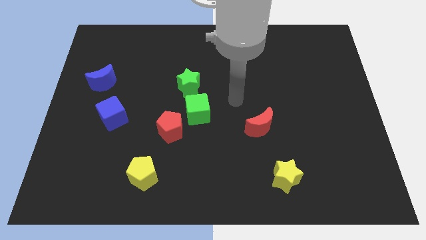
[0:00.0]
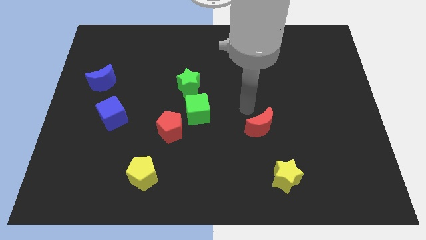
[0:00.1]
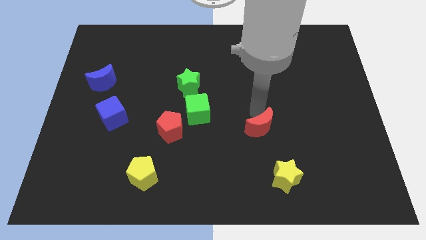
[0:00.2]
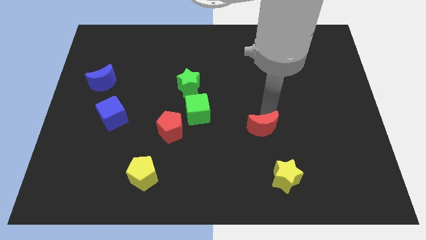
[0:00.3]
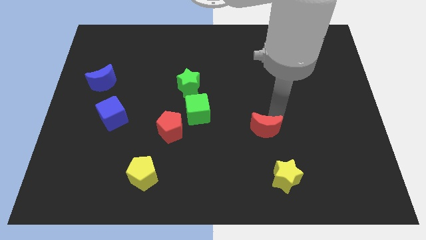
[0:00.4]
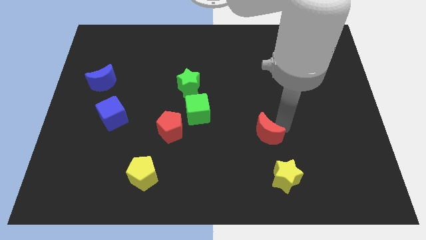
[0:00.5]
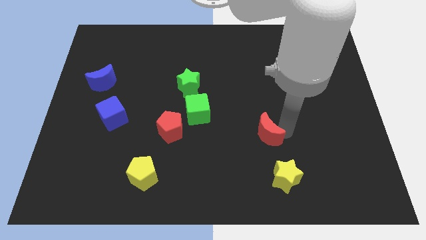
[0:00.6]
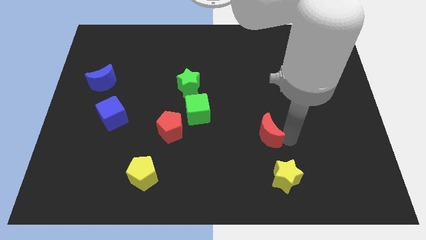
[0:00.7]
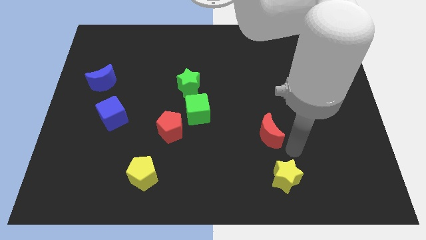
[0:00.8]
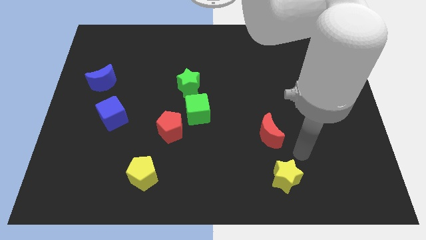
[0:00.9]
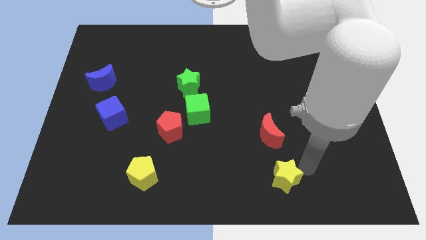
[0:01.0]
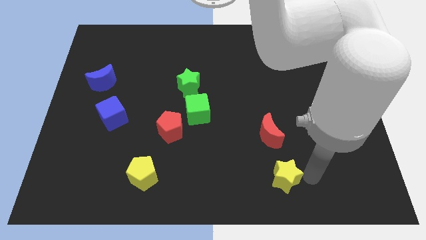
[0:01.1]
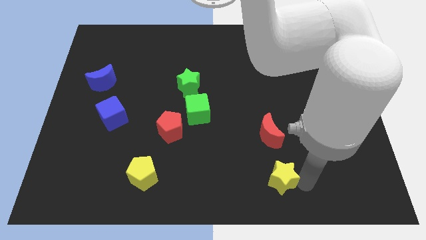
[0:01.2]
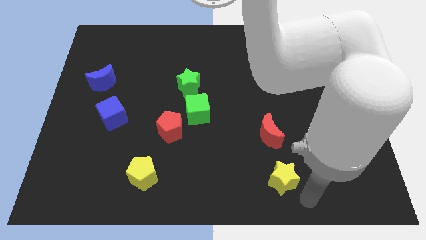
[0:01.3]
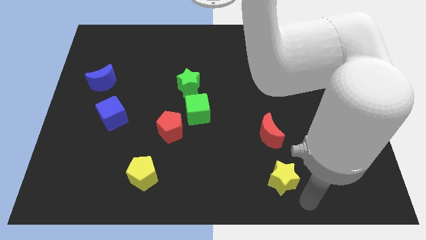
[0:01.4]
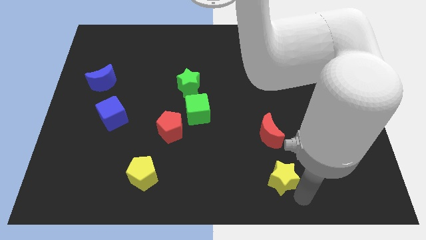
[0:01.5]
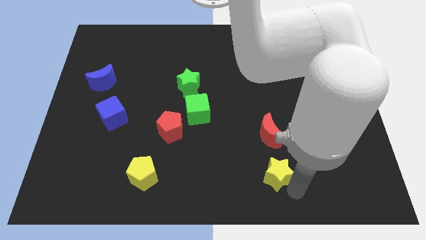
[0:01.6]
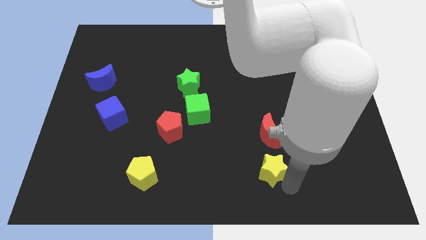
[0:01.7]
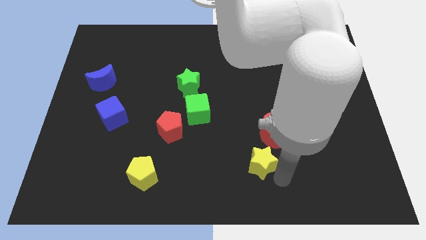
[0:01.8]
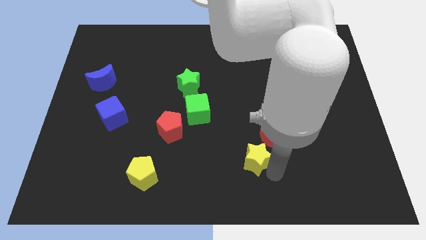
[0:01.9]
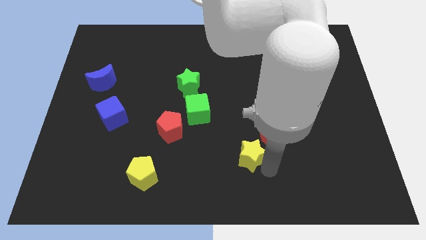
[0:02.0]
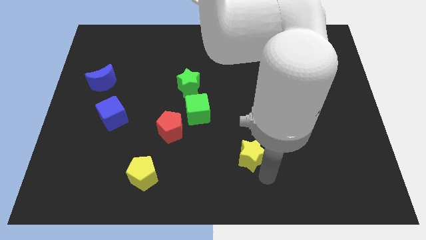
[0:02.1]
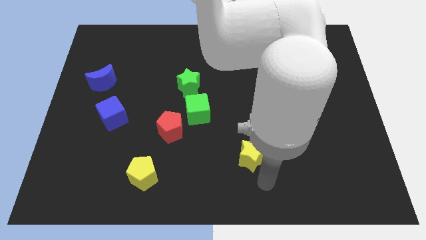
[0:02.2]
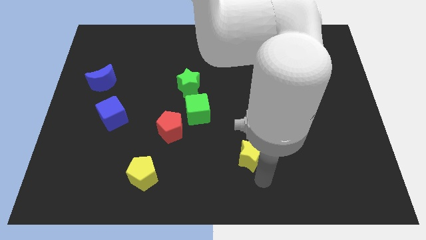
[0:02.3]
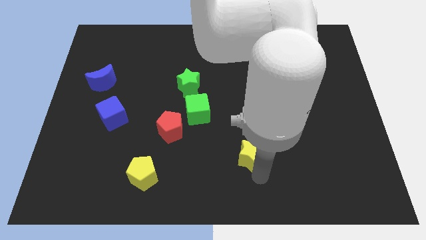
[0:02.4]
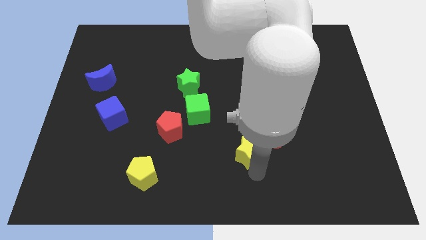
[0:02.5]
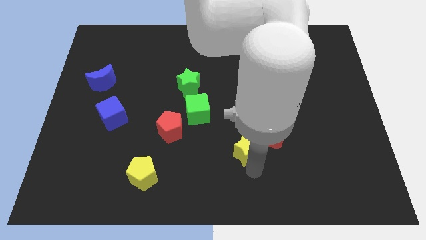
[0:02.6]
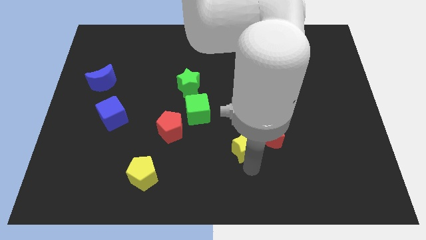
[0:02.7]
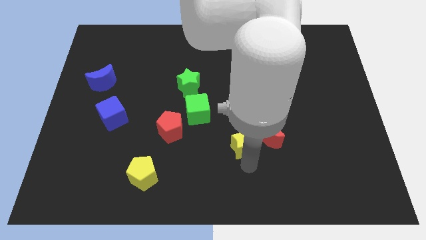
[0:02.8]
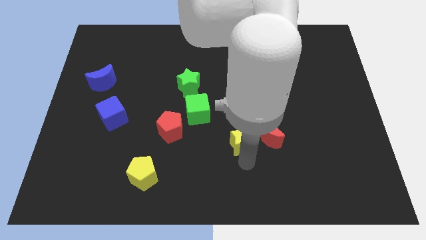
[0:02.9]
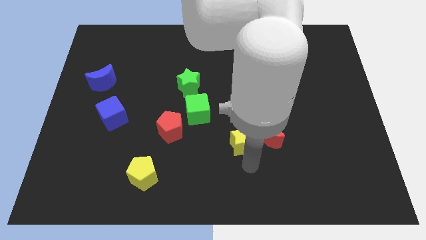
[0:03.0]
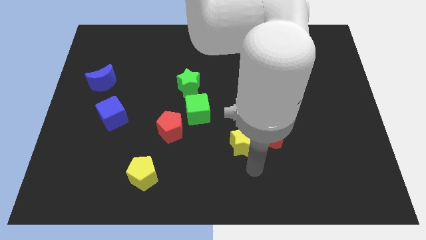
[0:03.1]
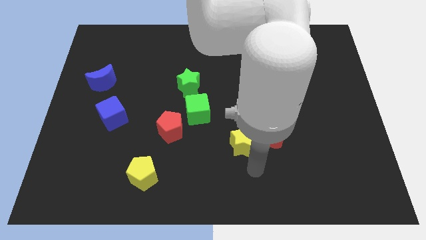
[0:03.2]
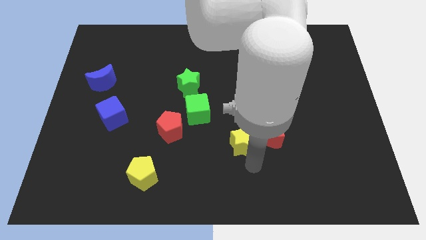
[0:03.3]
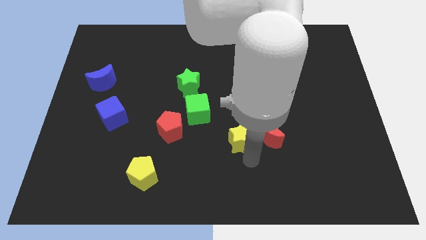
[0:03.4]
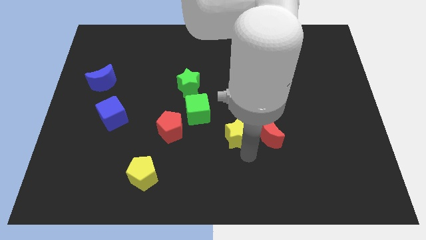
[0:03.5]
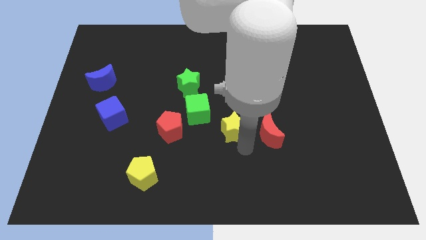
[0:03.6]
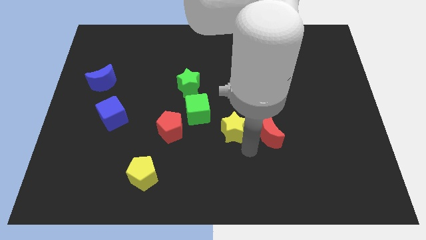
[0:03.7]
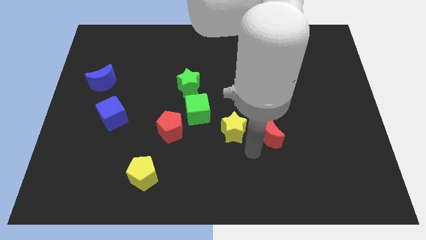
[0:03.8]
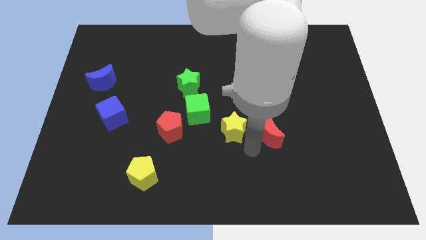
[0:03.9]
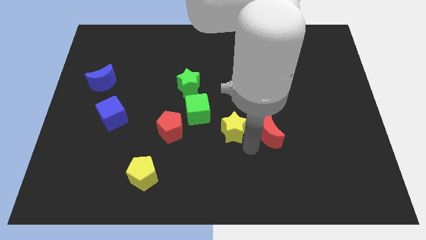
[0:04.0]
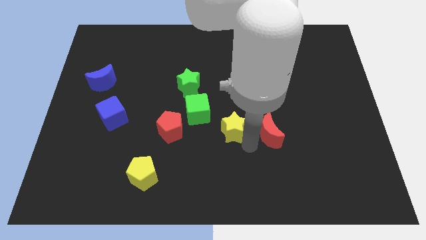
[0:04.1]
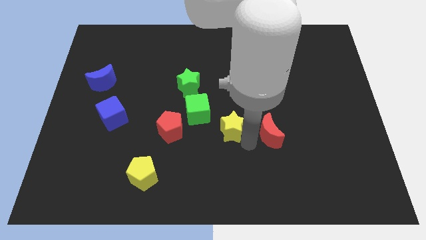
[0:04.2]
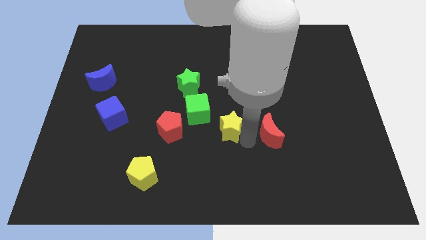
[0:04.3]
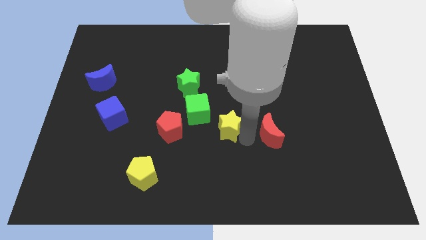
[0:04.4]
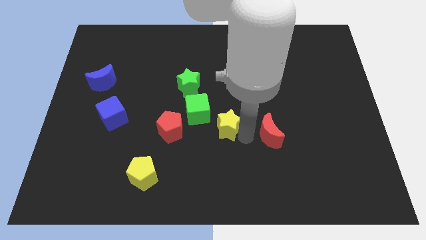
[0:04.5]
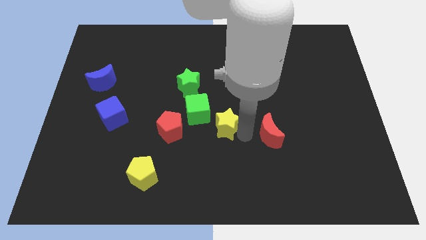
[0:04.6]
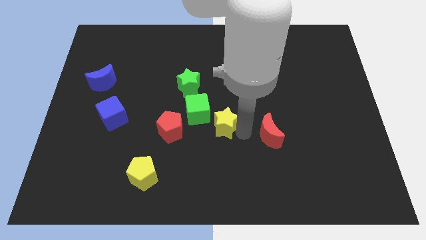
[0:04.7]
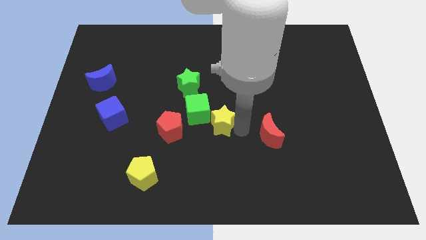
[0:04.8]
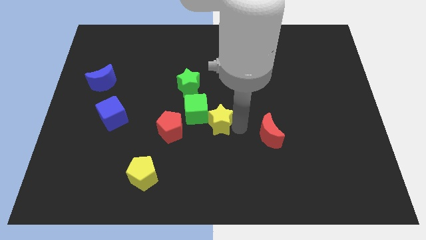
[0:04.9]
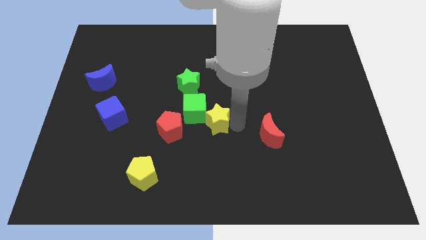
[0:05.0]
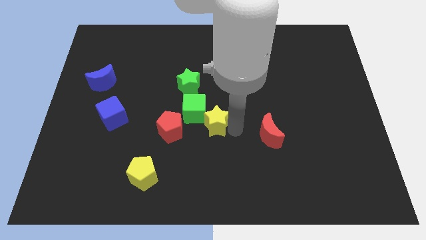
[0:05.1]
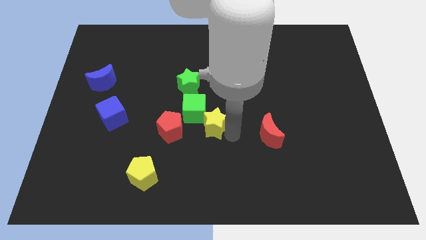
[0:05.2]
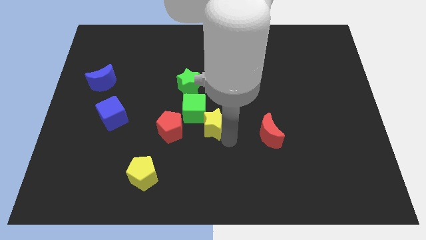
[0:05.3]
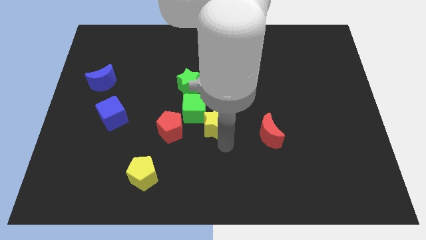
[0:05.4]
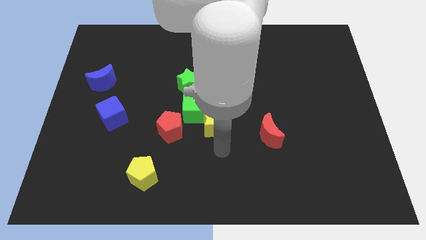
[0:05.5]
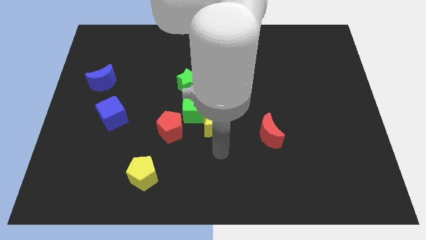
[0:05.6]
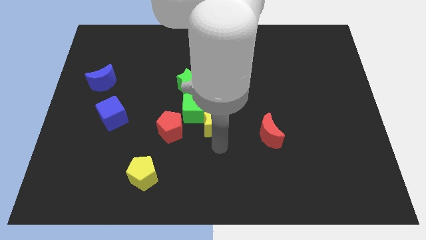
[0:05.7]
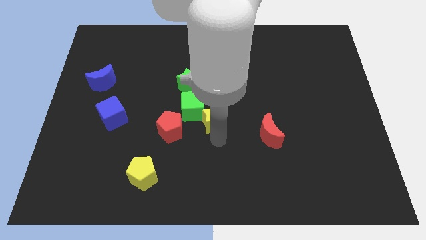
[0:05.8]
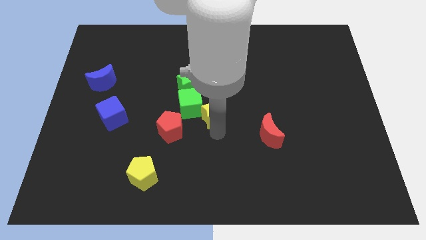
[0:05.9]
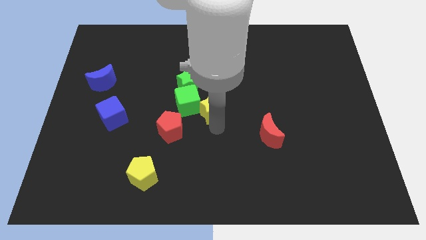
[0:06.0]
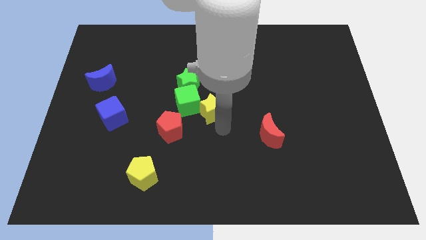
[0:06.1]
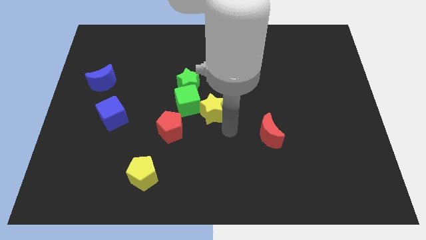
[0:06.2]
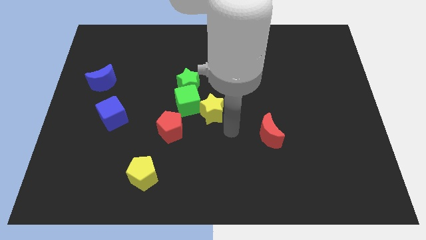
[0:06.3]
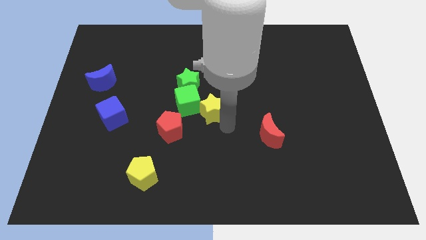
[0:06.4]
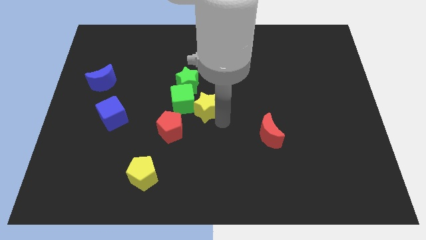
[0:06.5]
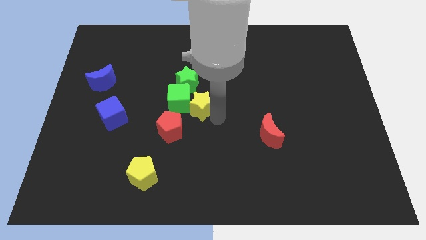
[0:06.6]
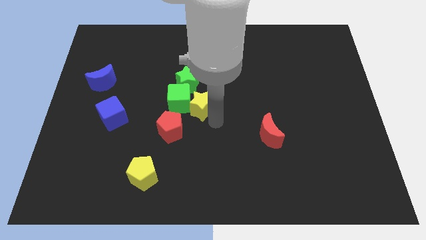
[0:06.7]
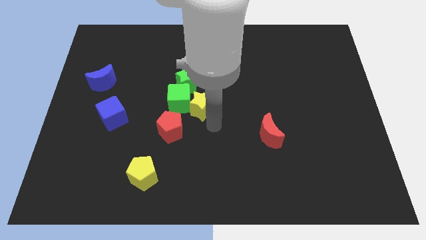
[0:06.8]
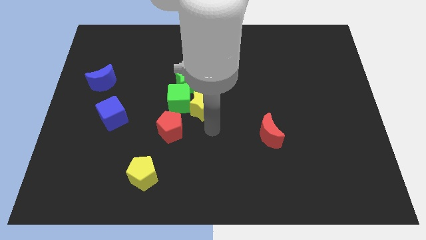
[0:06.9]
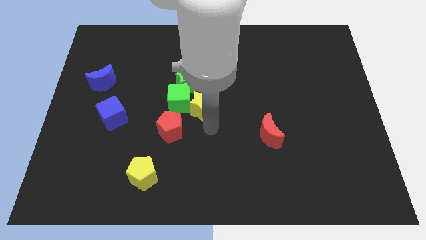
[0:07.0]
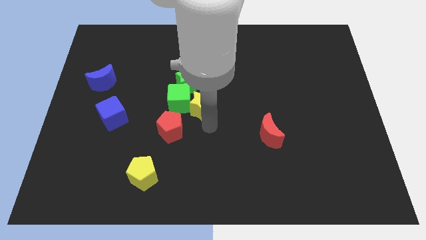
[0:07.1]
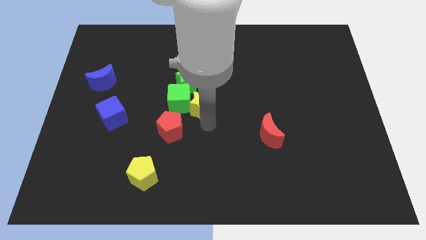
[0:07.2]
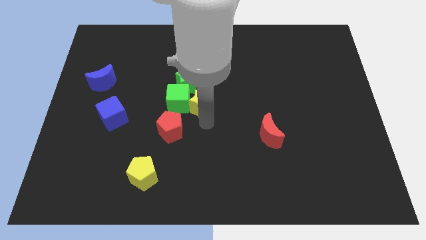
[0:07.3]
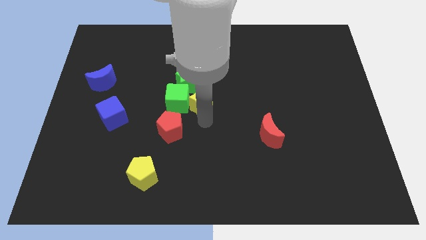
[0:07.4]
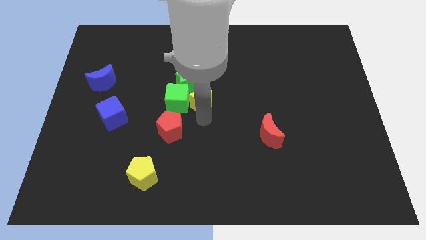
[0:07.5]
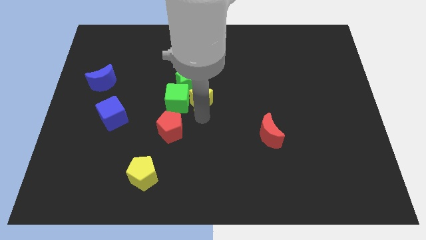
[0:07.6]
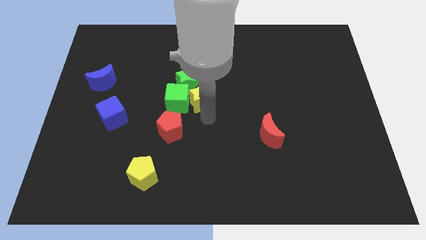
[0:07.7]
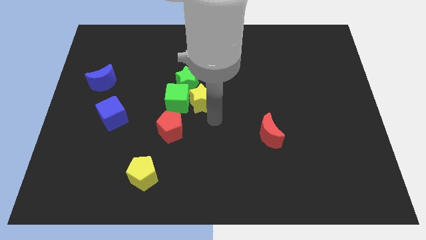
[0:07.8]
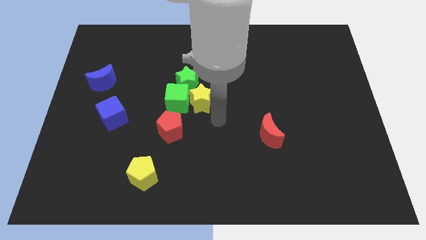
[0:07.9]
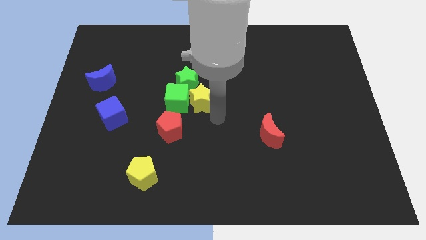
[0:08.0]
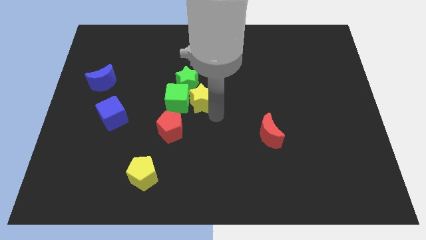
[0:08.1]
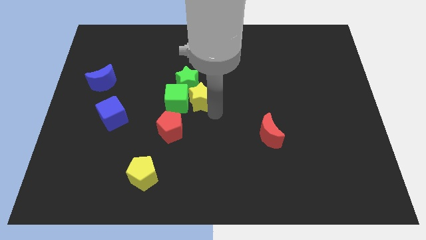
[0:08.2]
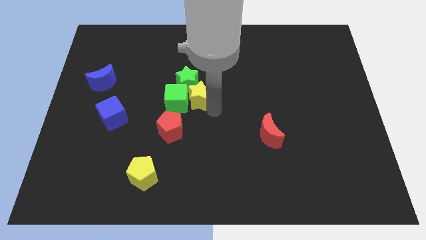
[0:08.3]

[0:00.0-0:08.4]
move the yellow star next to the green star
